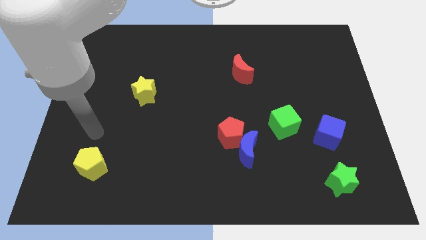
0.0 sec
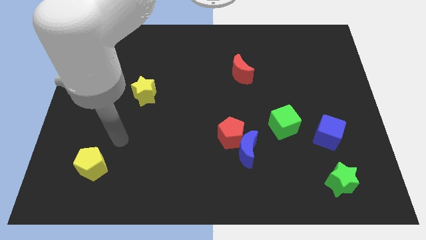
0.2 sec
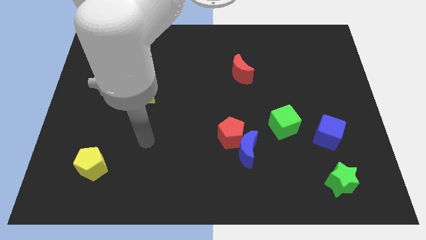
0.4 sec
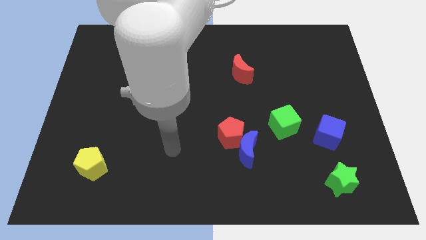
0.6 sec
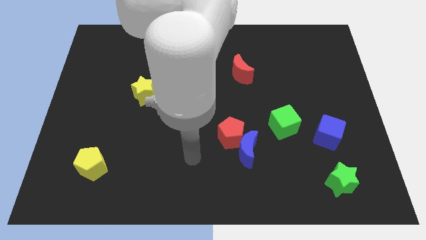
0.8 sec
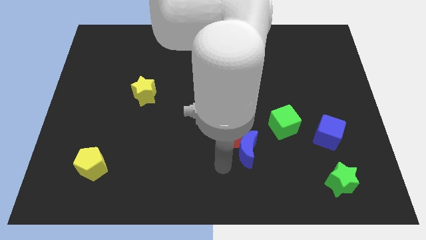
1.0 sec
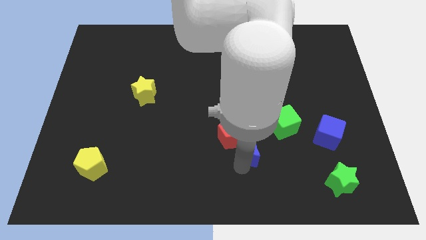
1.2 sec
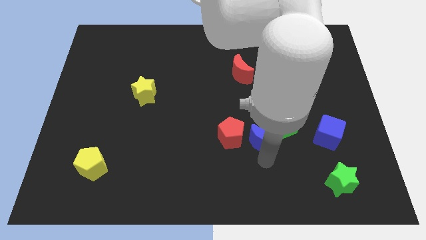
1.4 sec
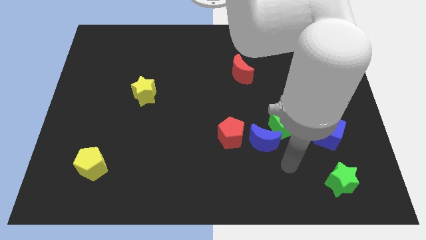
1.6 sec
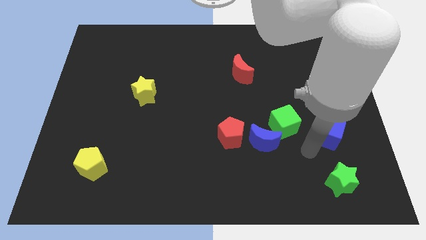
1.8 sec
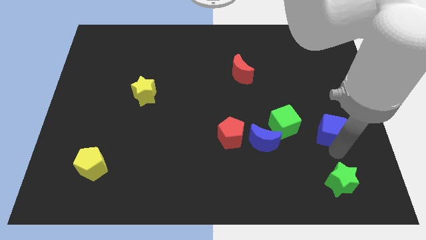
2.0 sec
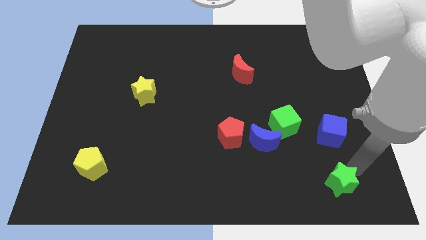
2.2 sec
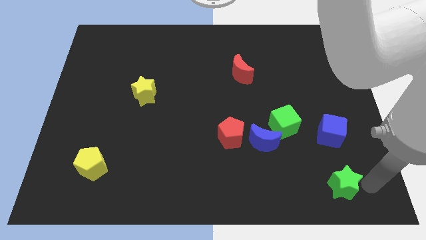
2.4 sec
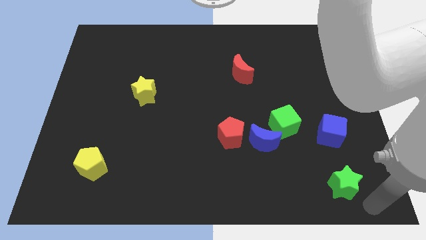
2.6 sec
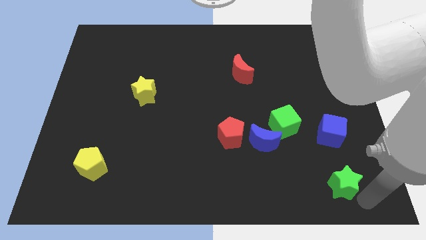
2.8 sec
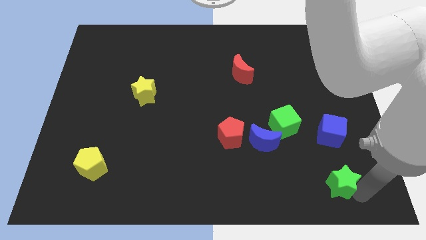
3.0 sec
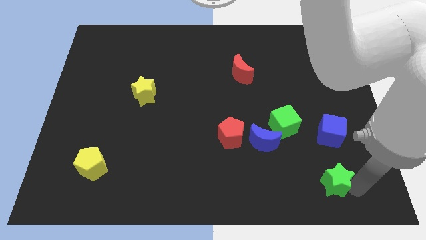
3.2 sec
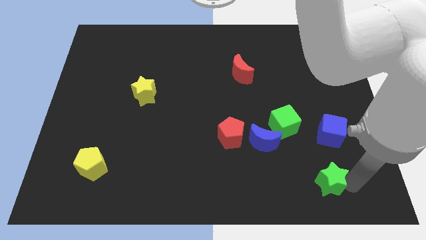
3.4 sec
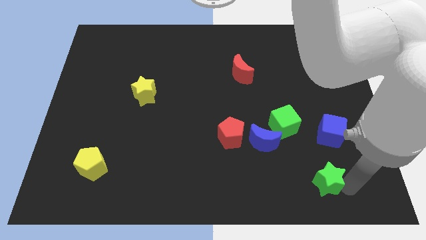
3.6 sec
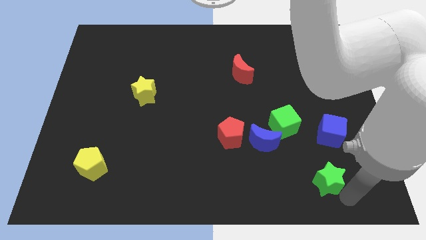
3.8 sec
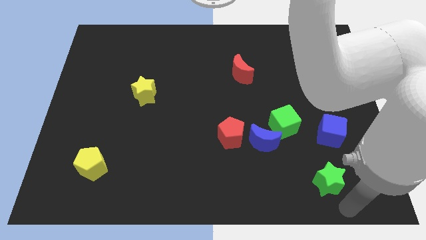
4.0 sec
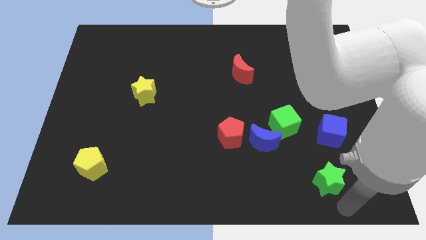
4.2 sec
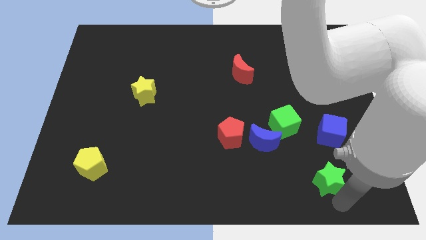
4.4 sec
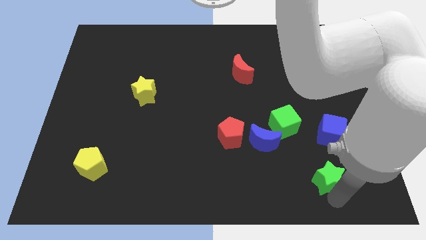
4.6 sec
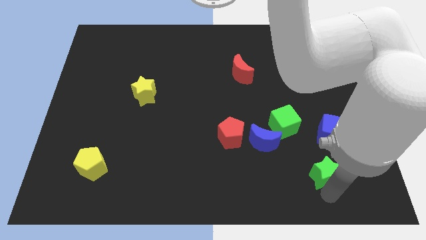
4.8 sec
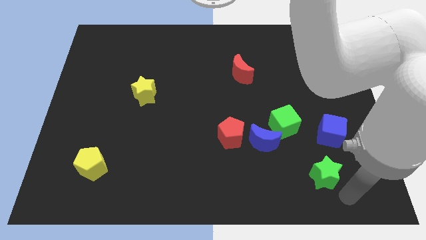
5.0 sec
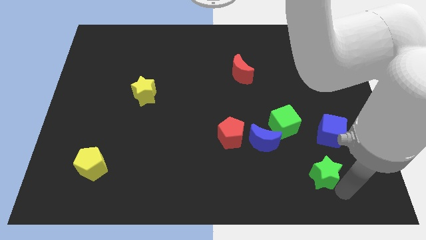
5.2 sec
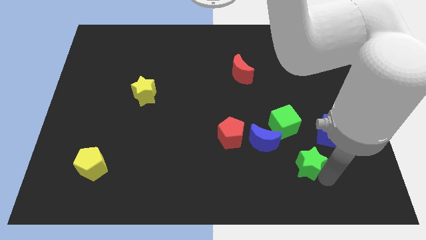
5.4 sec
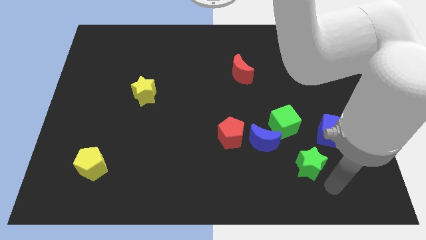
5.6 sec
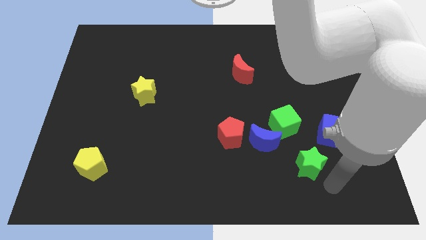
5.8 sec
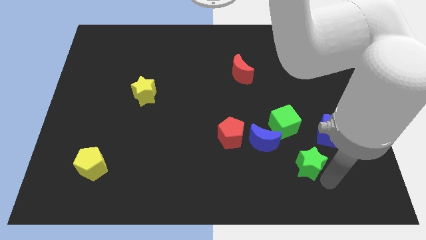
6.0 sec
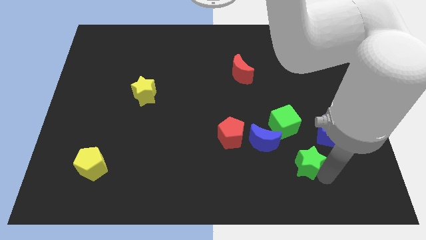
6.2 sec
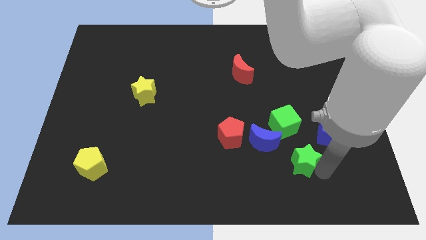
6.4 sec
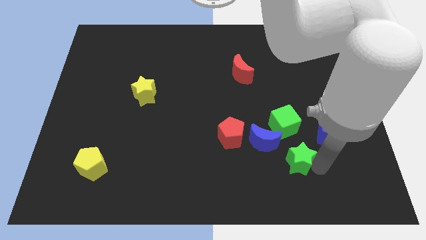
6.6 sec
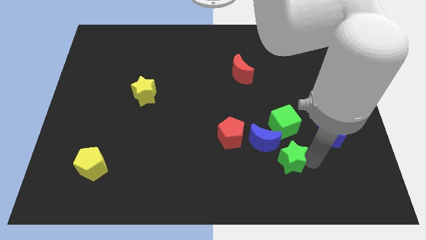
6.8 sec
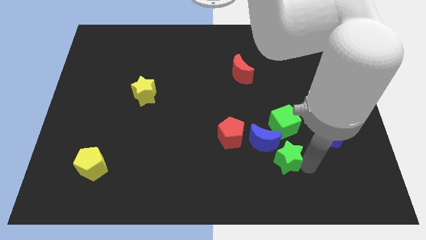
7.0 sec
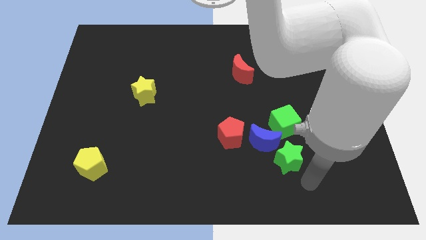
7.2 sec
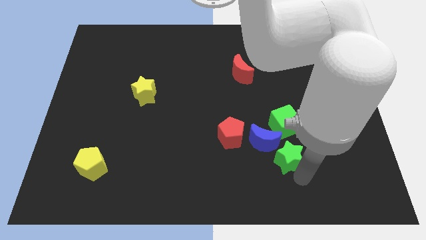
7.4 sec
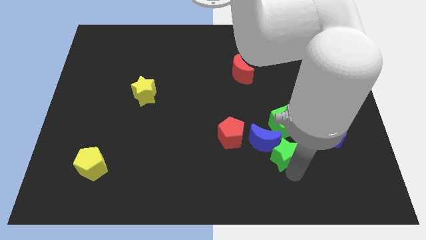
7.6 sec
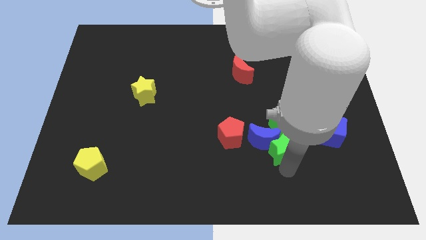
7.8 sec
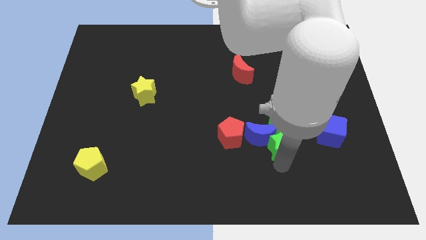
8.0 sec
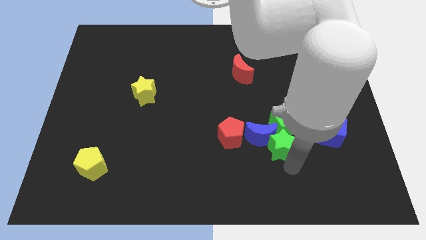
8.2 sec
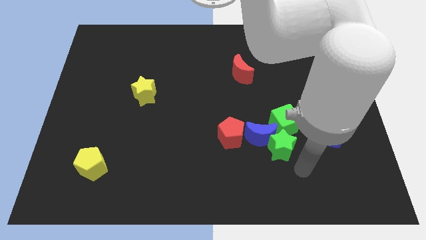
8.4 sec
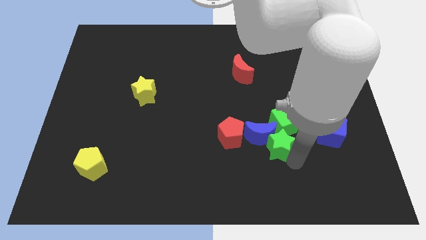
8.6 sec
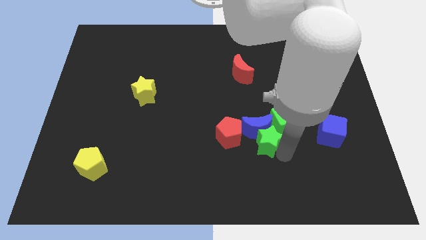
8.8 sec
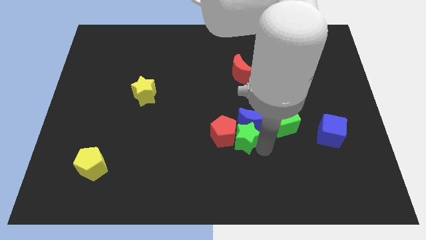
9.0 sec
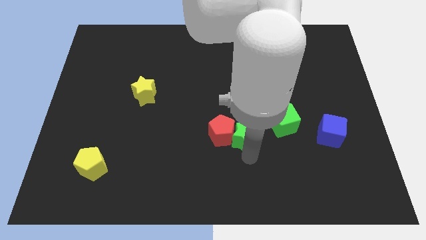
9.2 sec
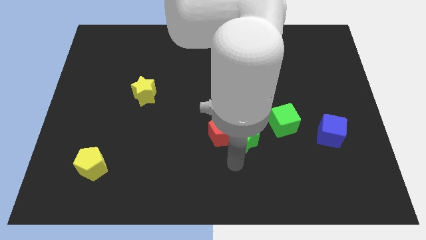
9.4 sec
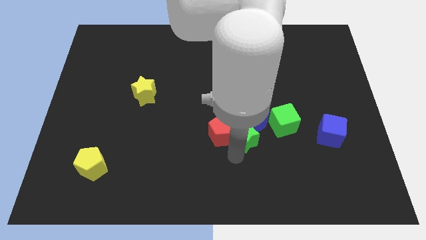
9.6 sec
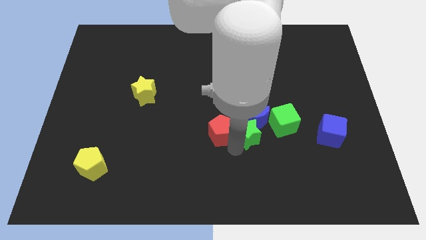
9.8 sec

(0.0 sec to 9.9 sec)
push the green star diagonally upwards and to the left

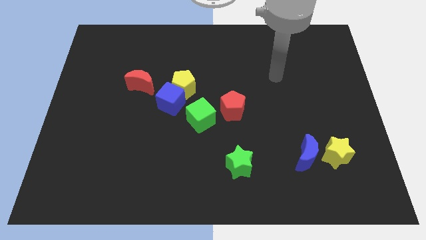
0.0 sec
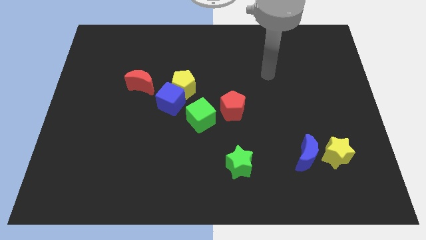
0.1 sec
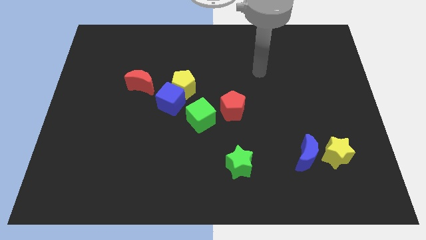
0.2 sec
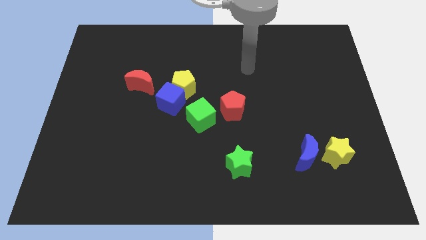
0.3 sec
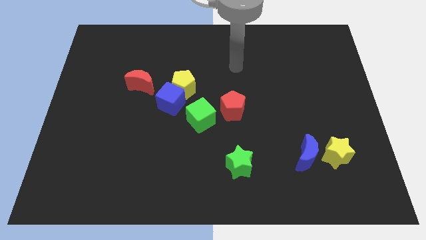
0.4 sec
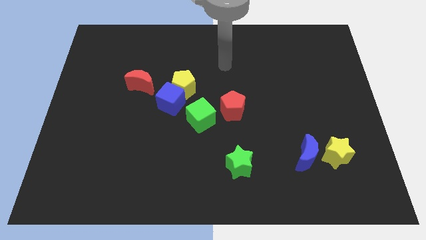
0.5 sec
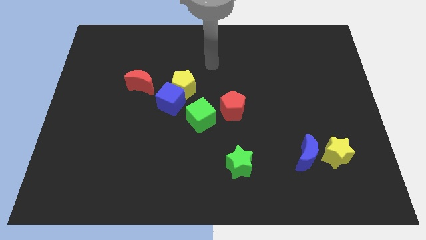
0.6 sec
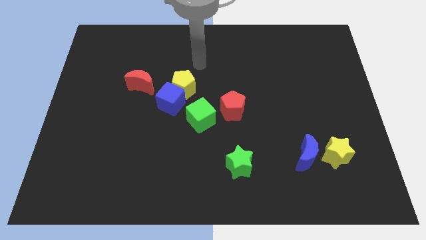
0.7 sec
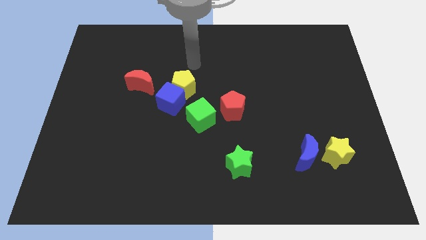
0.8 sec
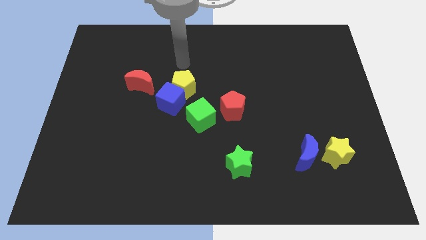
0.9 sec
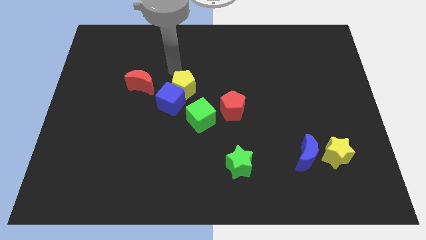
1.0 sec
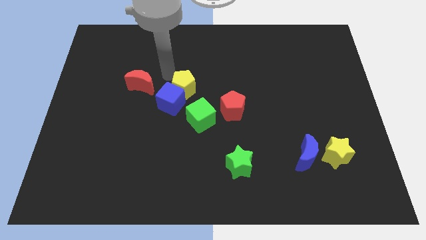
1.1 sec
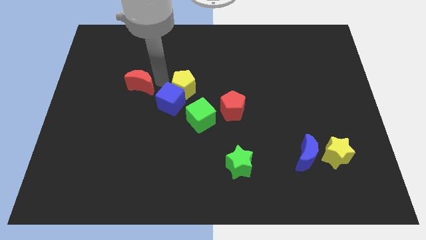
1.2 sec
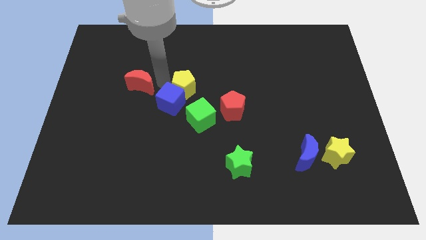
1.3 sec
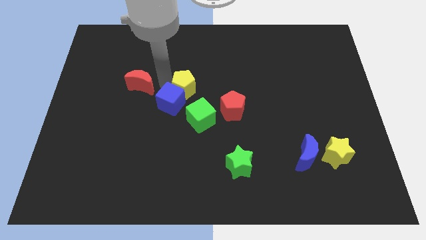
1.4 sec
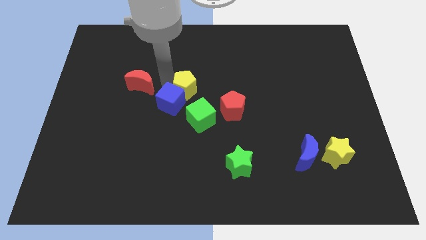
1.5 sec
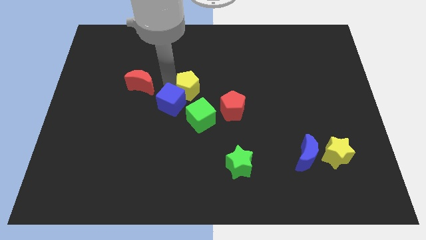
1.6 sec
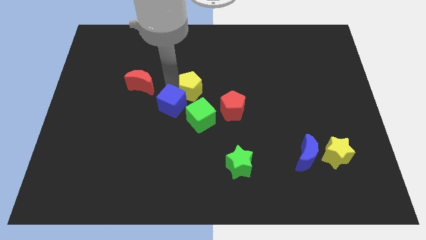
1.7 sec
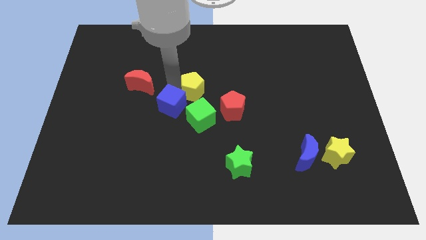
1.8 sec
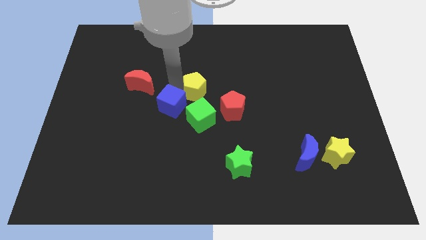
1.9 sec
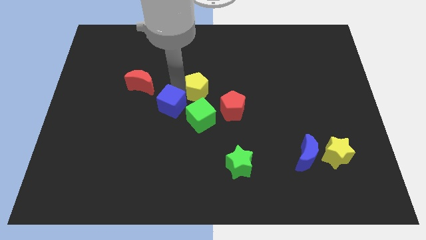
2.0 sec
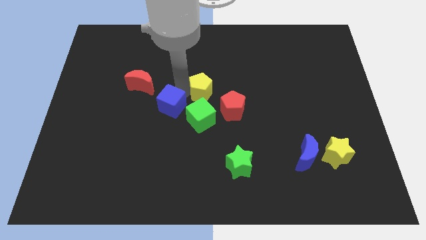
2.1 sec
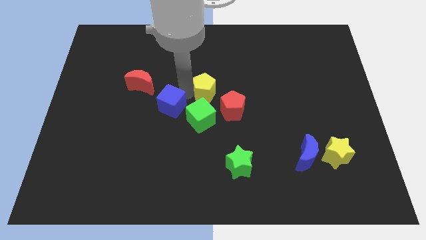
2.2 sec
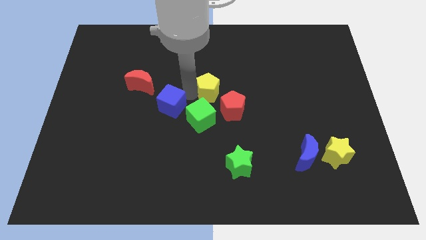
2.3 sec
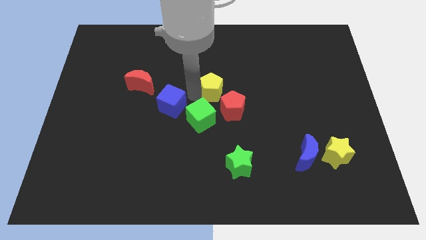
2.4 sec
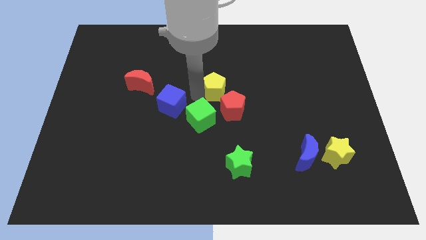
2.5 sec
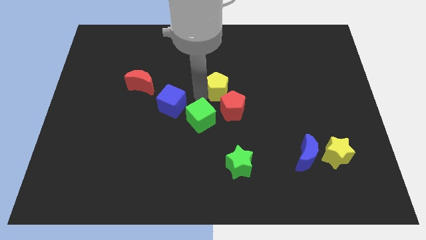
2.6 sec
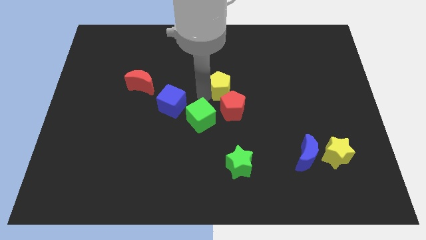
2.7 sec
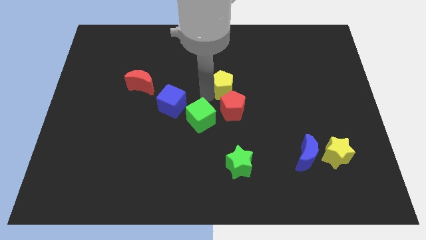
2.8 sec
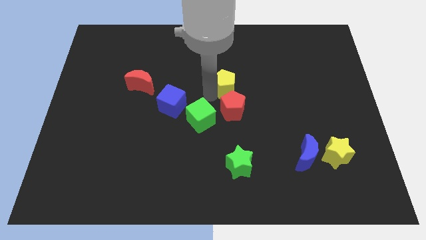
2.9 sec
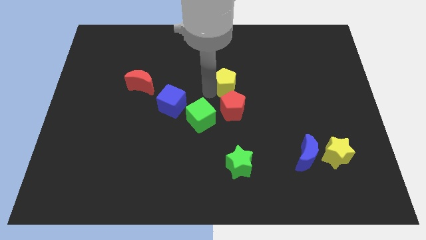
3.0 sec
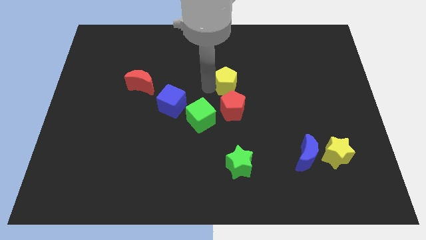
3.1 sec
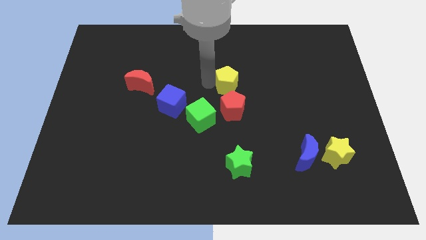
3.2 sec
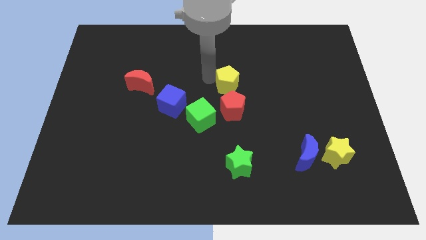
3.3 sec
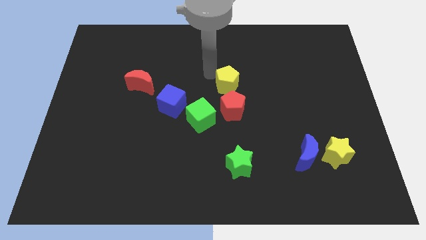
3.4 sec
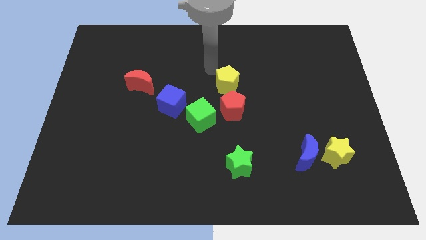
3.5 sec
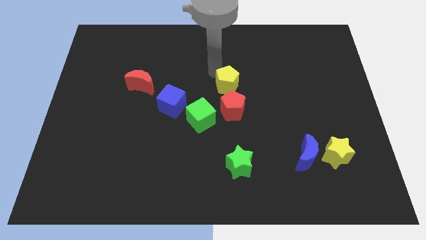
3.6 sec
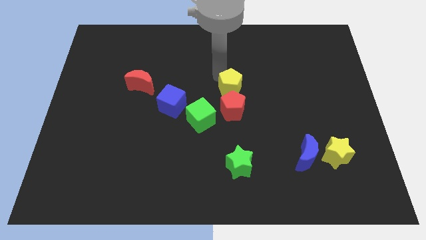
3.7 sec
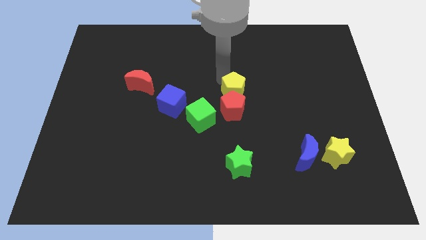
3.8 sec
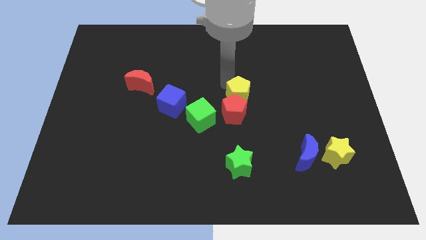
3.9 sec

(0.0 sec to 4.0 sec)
push the yellow pentagon down and to the right a little
